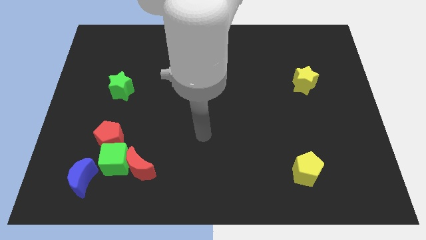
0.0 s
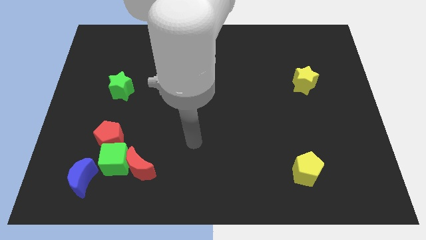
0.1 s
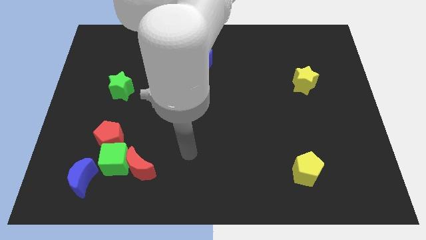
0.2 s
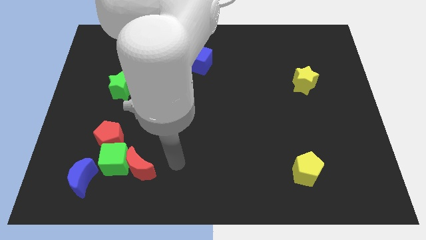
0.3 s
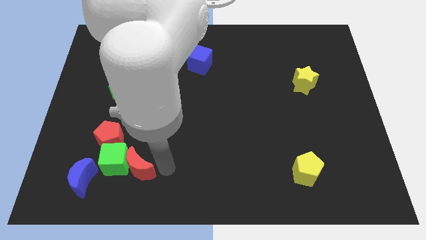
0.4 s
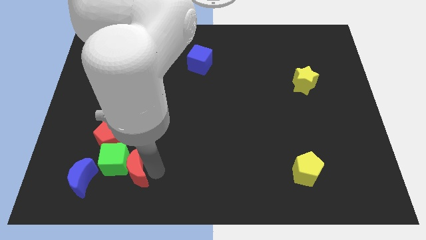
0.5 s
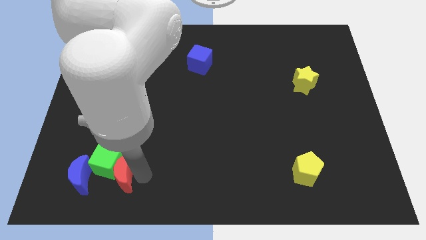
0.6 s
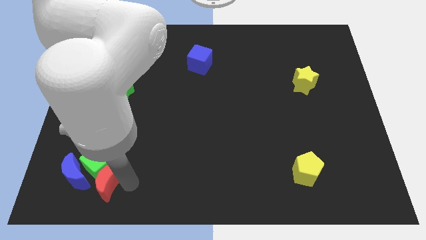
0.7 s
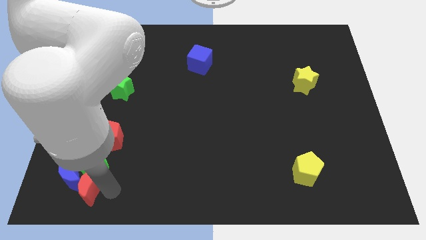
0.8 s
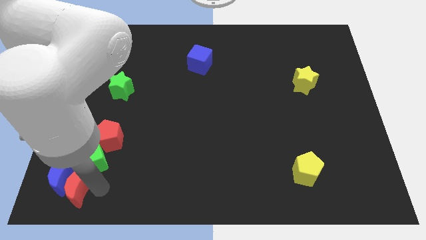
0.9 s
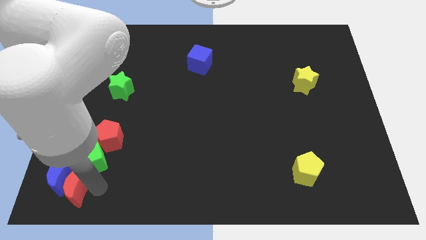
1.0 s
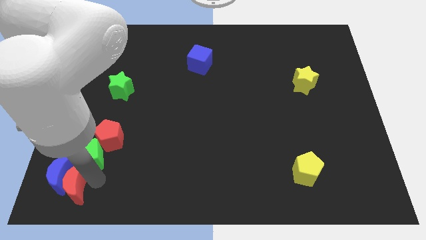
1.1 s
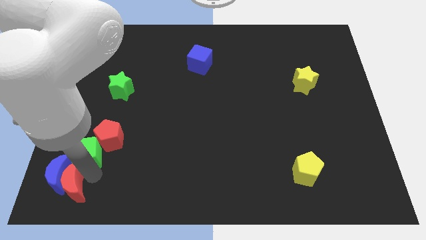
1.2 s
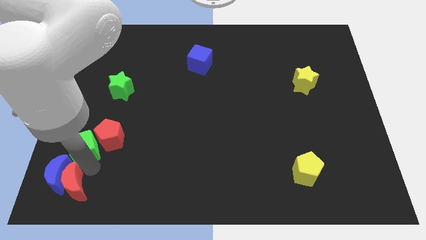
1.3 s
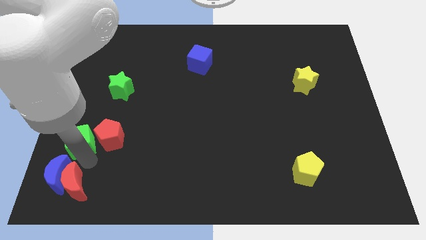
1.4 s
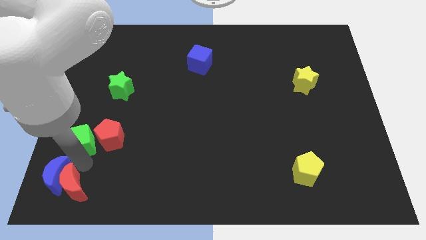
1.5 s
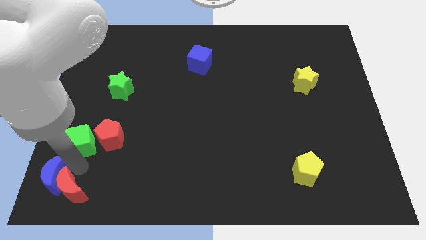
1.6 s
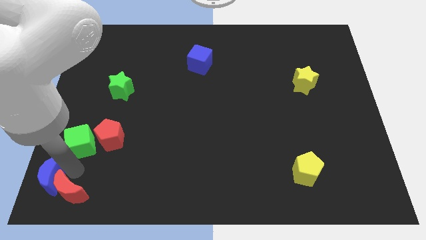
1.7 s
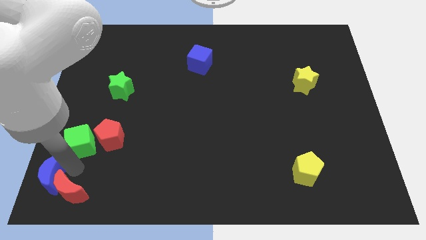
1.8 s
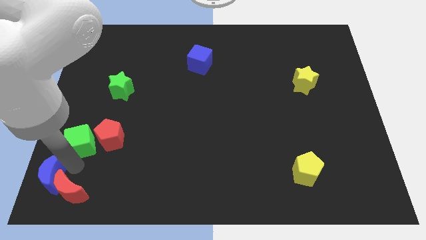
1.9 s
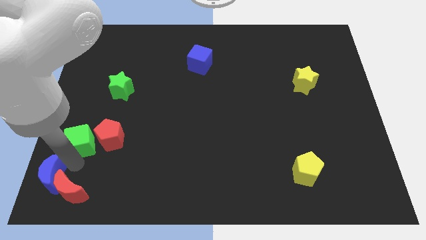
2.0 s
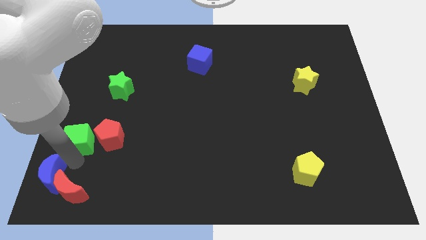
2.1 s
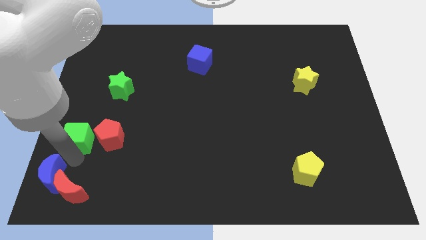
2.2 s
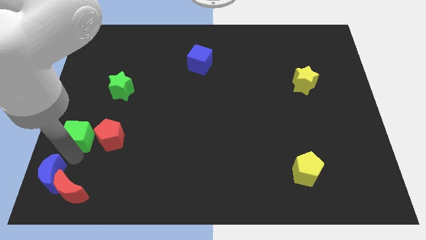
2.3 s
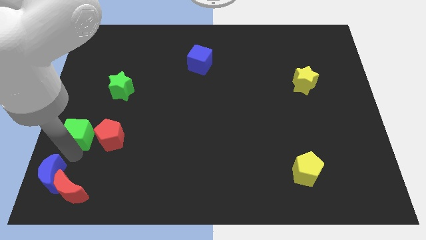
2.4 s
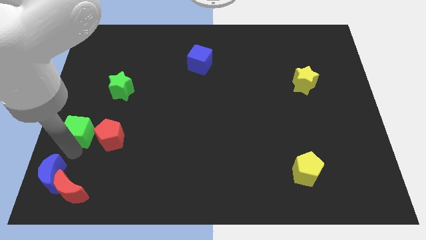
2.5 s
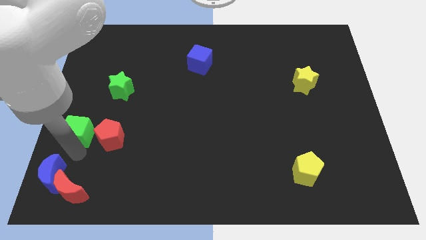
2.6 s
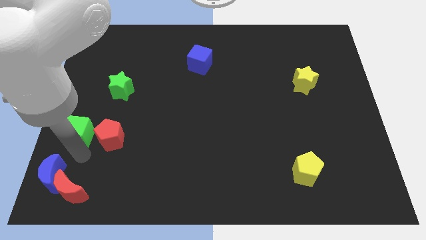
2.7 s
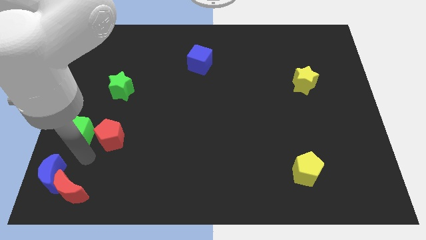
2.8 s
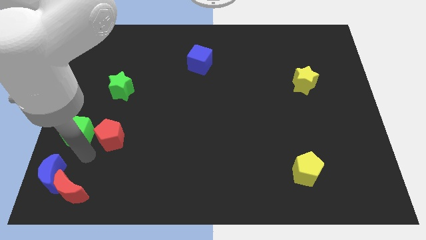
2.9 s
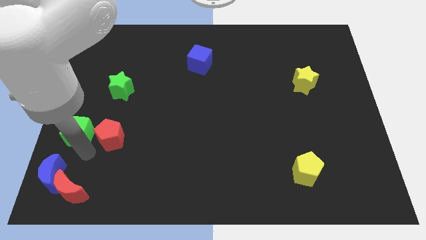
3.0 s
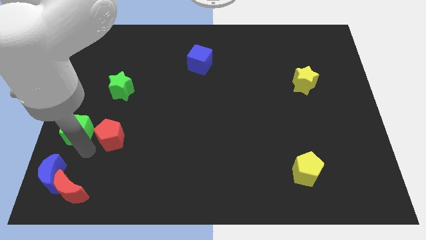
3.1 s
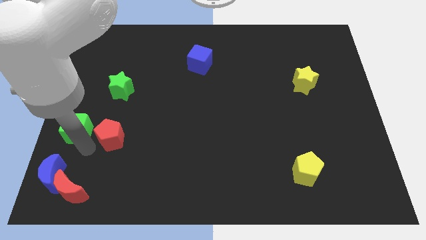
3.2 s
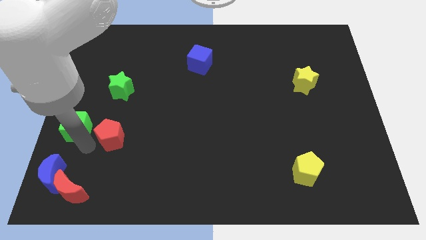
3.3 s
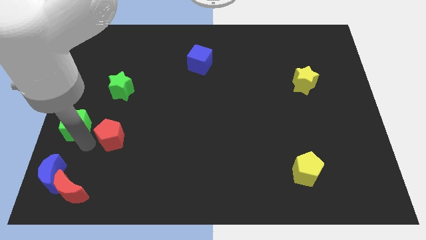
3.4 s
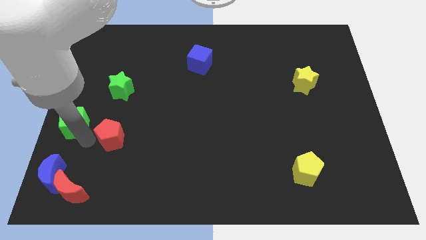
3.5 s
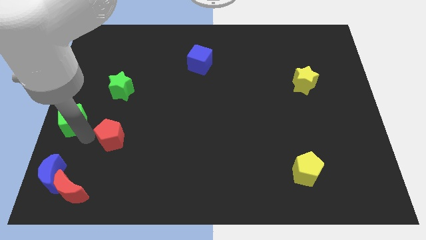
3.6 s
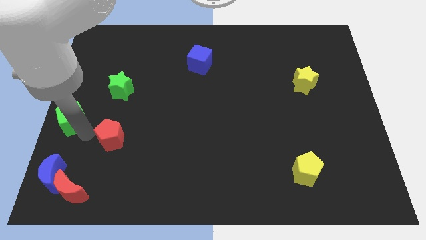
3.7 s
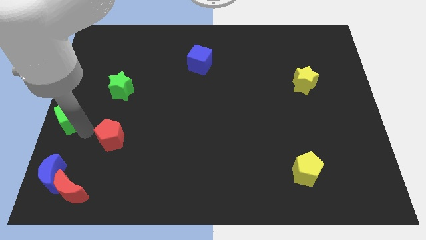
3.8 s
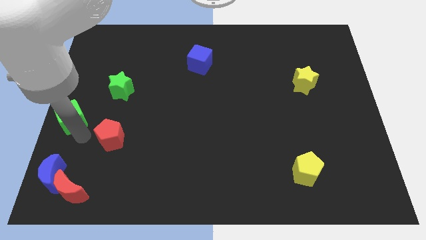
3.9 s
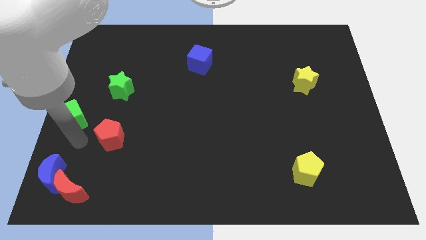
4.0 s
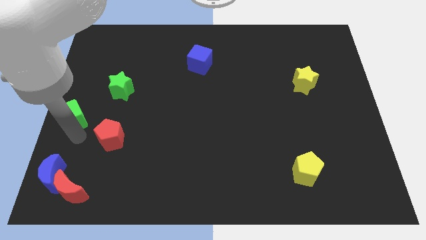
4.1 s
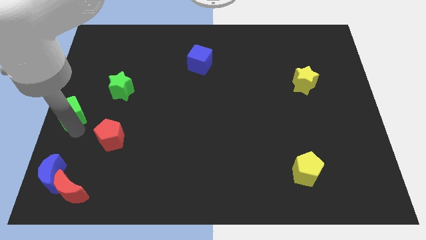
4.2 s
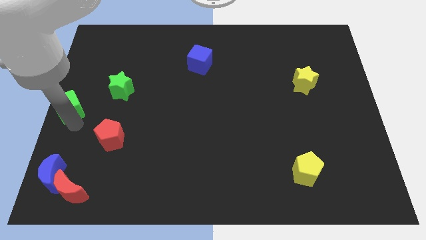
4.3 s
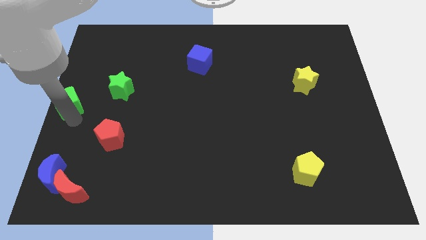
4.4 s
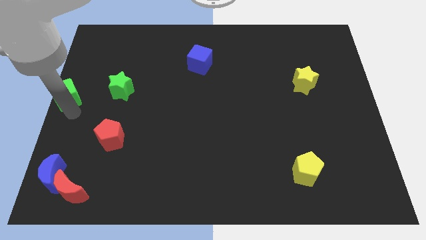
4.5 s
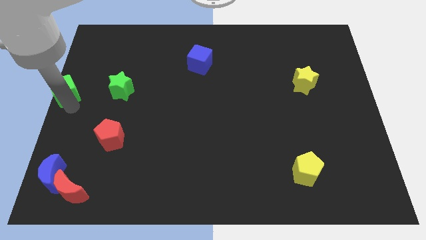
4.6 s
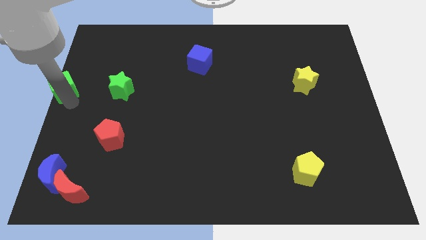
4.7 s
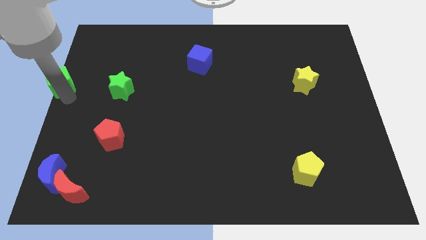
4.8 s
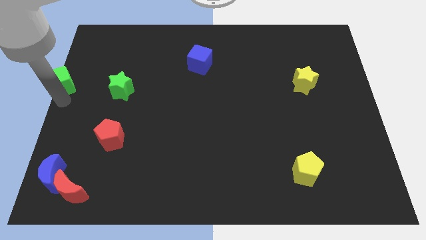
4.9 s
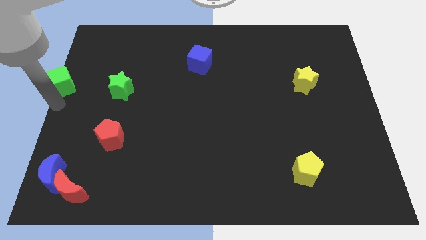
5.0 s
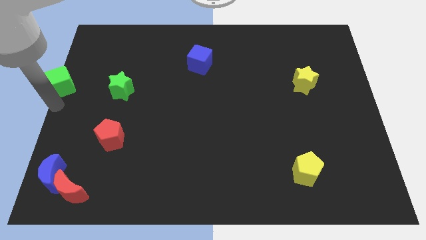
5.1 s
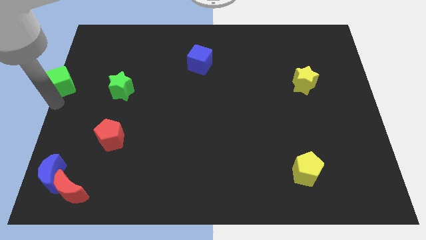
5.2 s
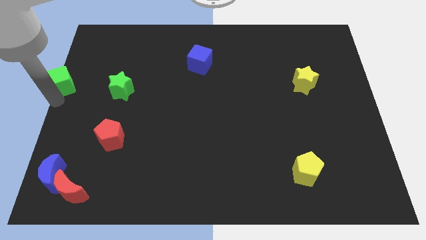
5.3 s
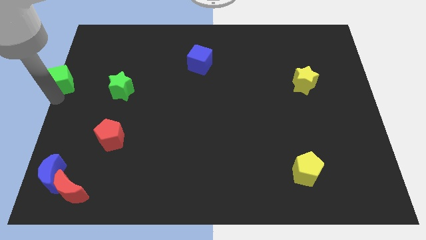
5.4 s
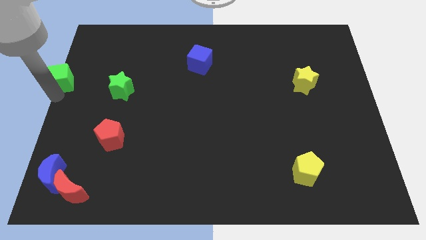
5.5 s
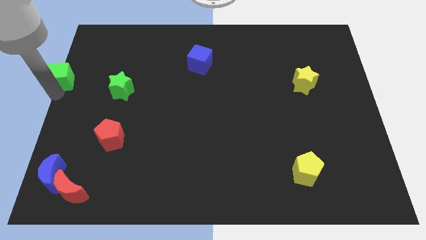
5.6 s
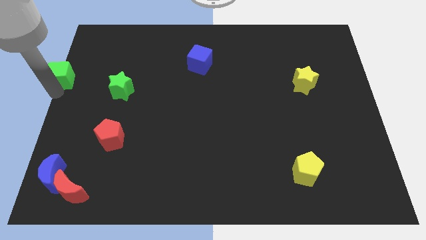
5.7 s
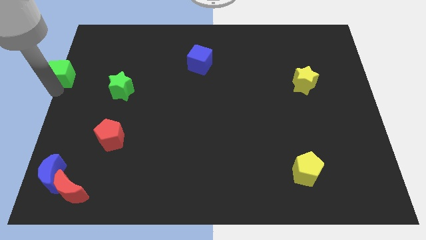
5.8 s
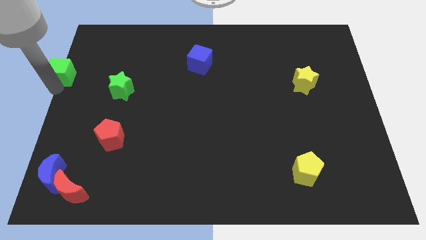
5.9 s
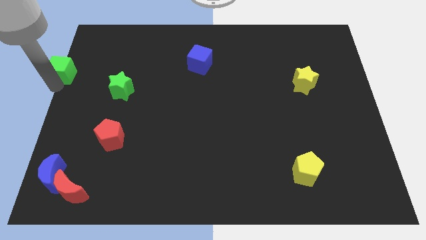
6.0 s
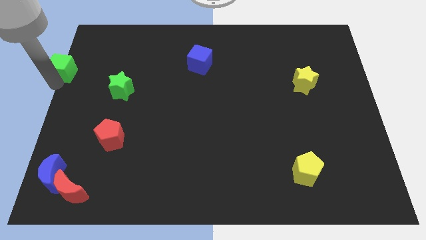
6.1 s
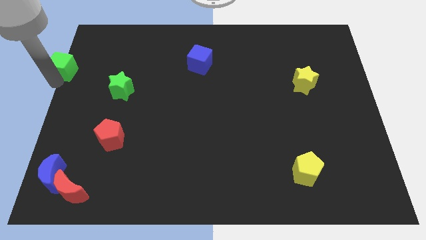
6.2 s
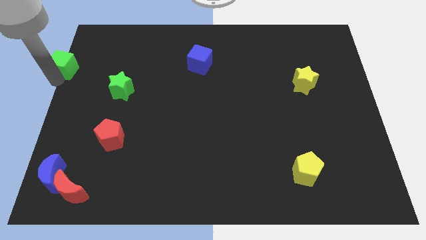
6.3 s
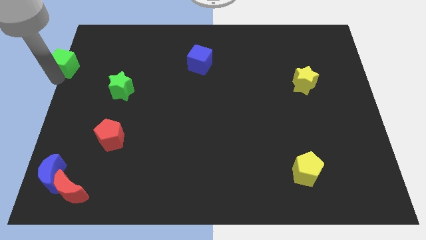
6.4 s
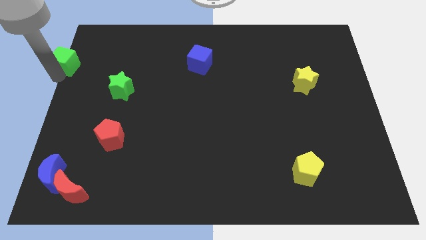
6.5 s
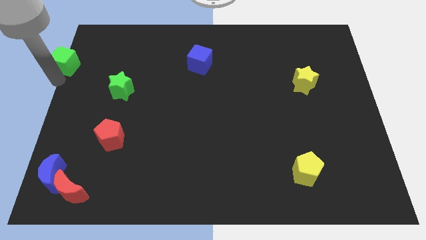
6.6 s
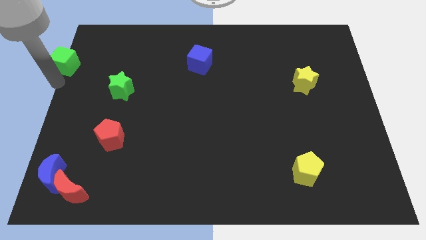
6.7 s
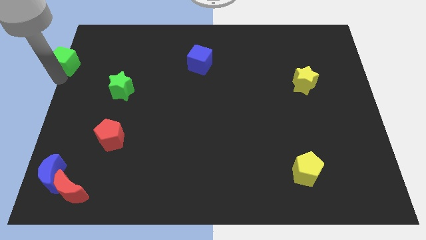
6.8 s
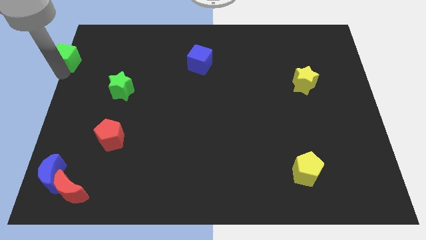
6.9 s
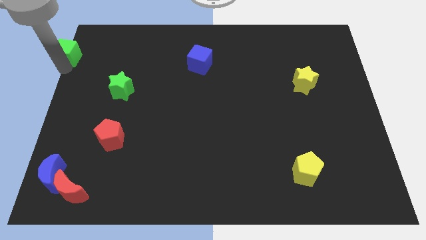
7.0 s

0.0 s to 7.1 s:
slide the green cube to the top left of the board

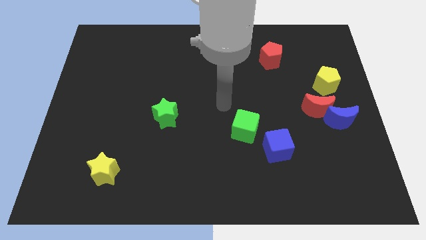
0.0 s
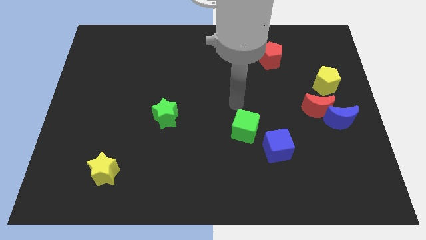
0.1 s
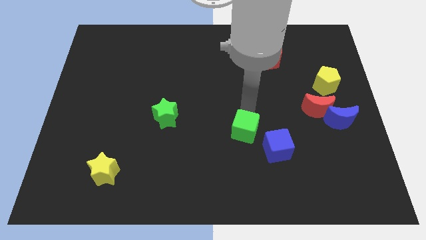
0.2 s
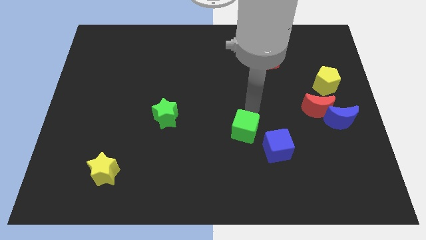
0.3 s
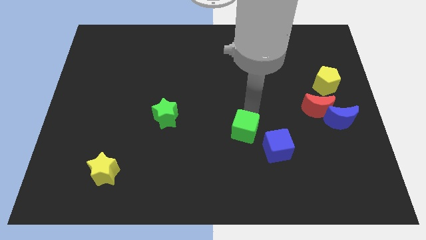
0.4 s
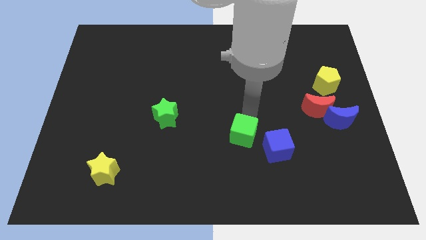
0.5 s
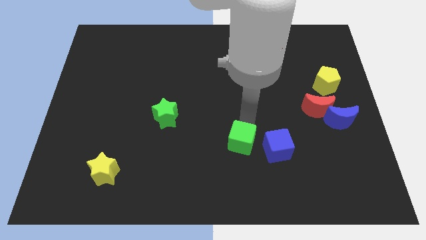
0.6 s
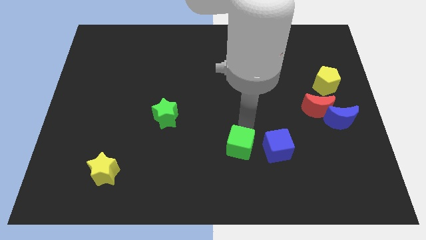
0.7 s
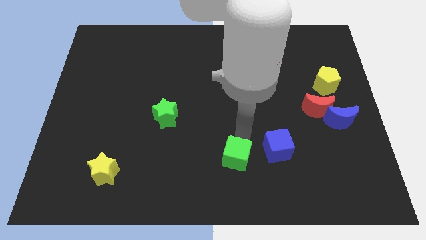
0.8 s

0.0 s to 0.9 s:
push the green cube to the bottom
